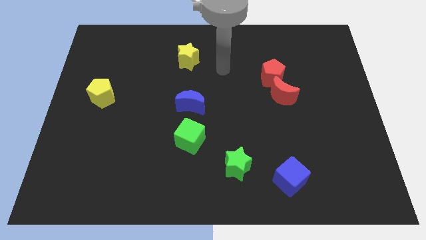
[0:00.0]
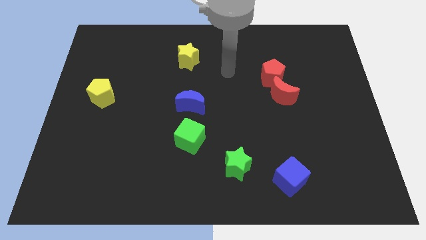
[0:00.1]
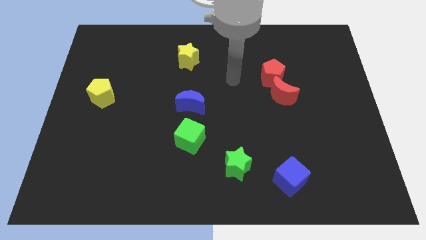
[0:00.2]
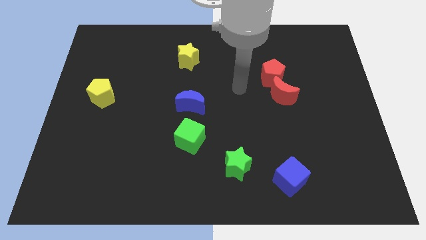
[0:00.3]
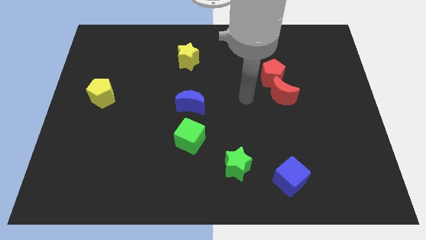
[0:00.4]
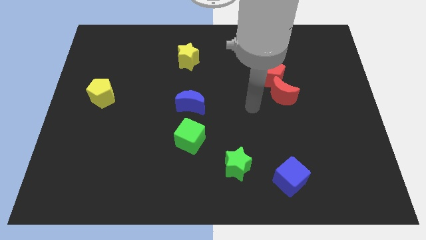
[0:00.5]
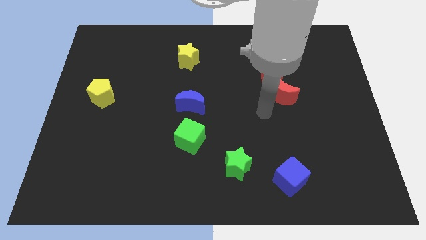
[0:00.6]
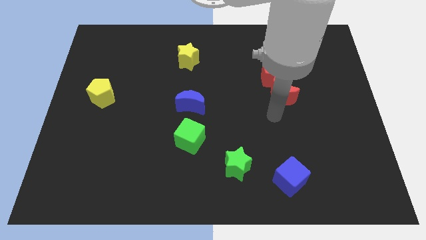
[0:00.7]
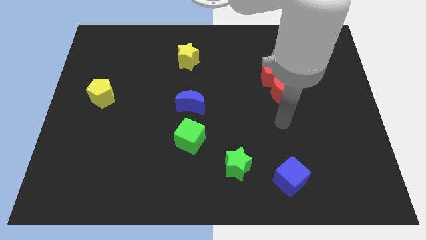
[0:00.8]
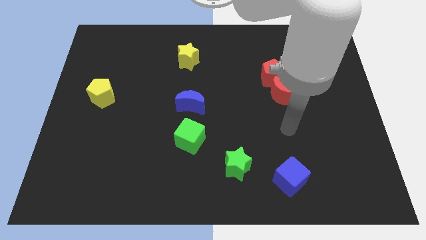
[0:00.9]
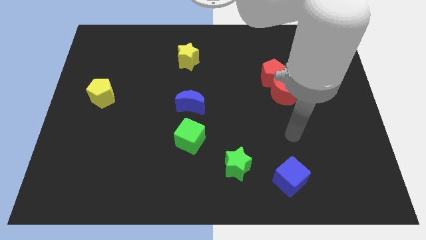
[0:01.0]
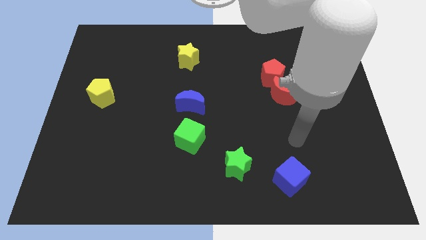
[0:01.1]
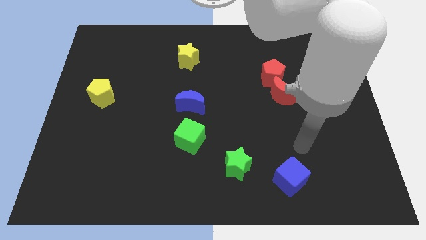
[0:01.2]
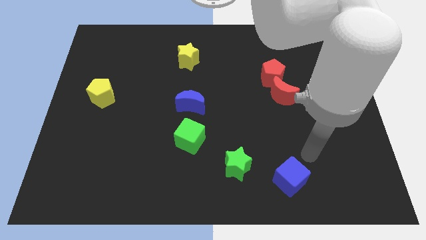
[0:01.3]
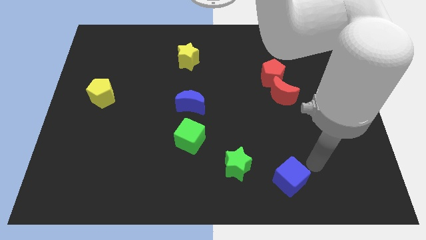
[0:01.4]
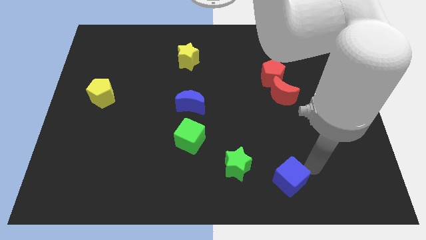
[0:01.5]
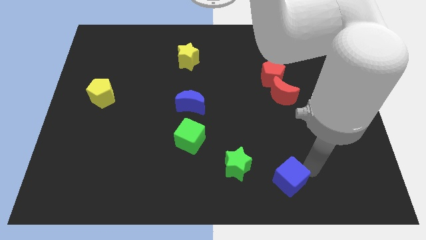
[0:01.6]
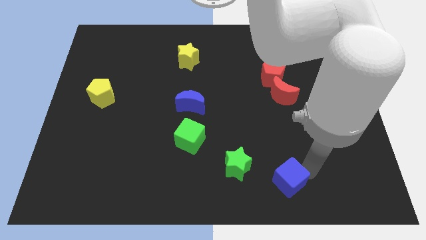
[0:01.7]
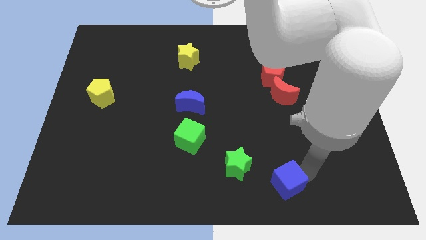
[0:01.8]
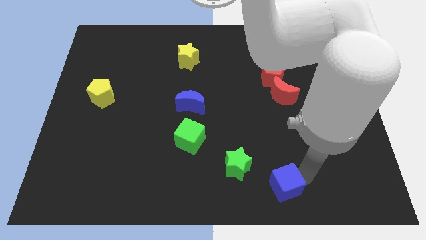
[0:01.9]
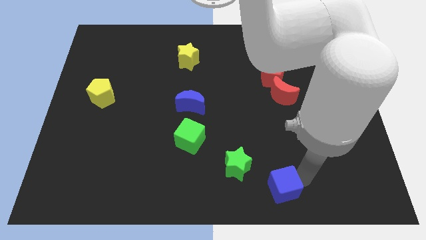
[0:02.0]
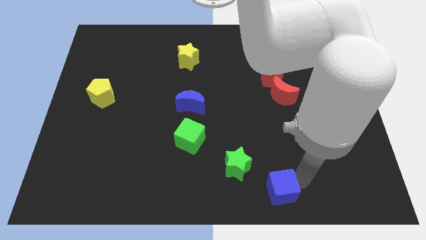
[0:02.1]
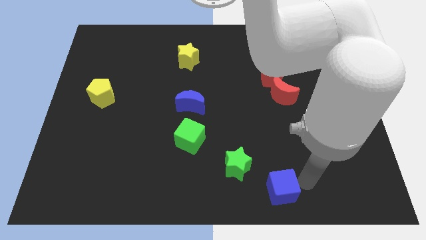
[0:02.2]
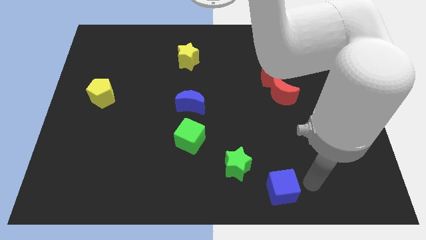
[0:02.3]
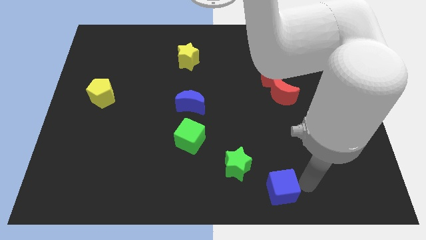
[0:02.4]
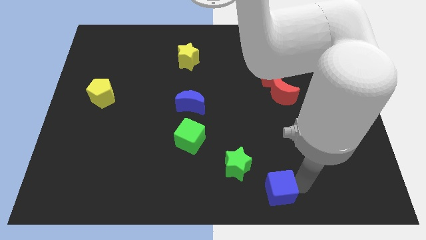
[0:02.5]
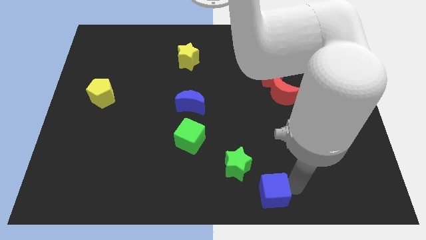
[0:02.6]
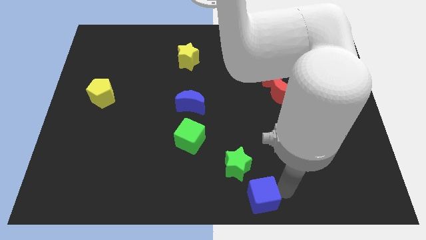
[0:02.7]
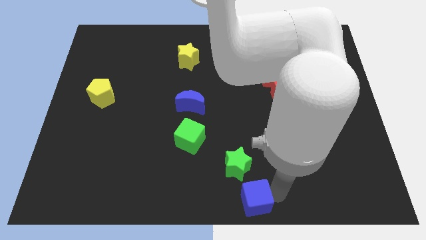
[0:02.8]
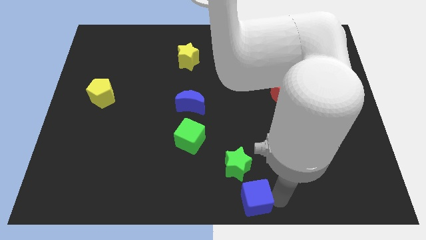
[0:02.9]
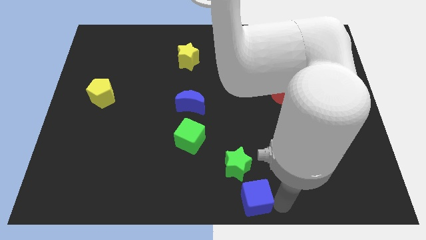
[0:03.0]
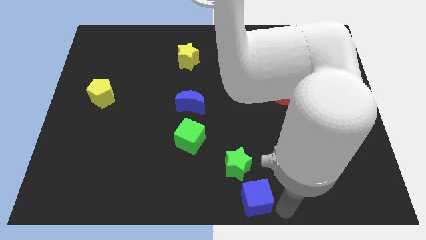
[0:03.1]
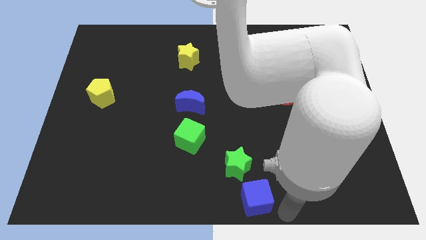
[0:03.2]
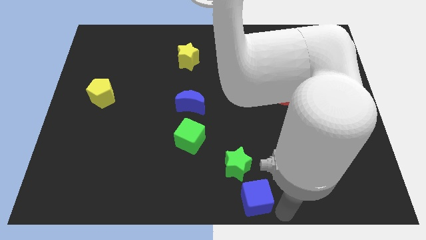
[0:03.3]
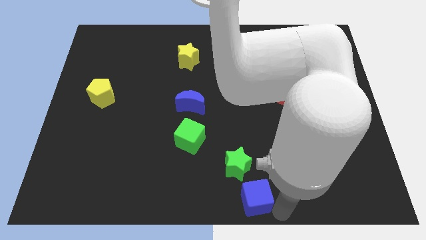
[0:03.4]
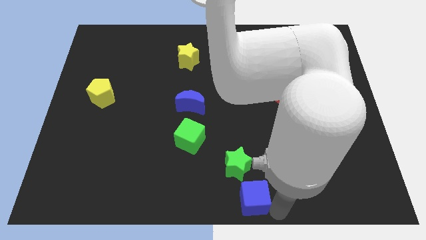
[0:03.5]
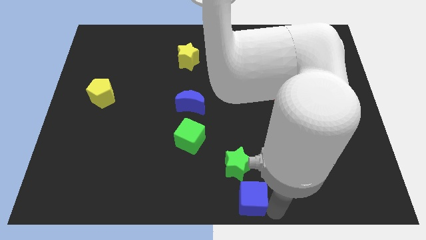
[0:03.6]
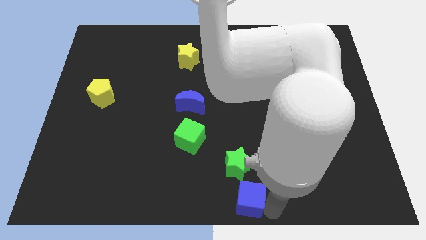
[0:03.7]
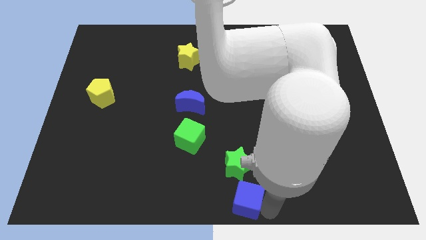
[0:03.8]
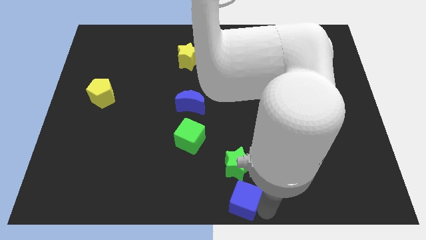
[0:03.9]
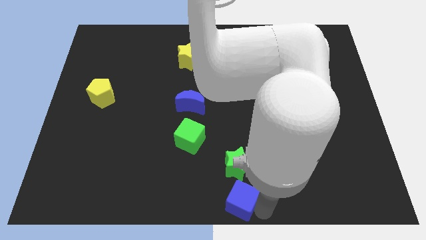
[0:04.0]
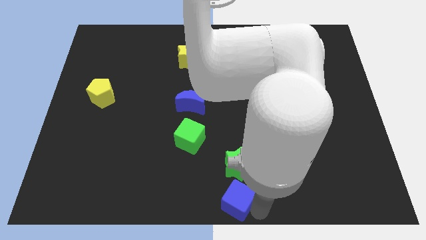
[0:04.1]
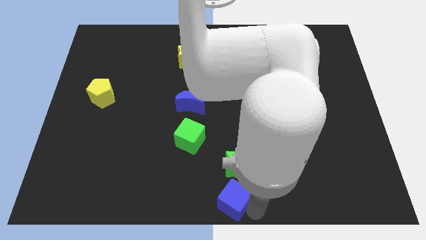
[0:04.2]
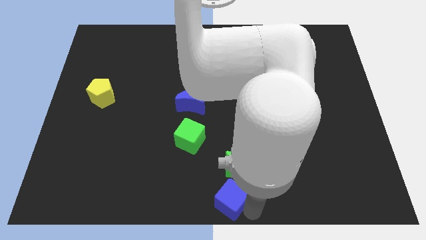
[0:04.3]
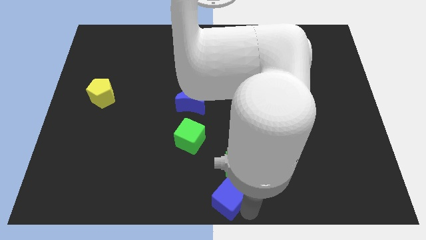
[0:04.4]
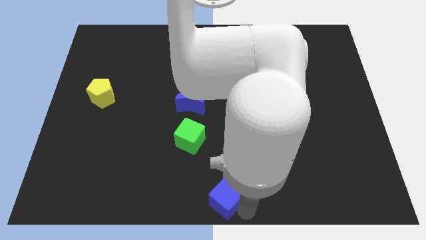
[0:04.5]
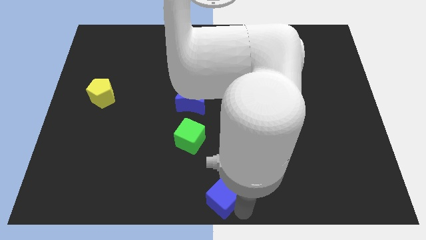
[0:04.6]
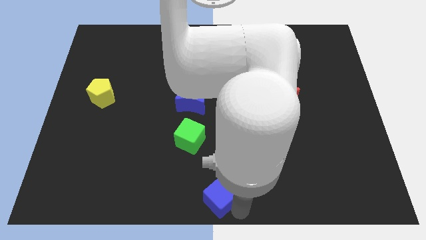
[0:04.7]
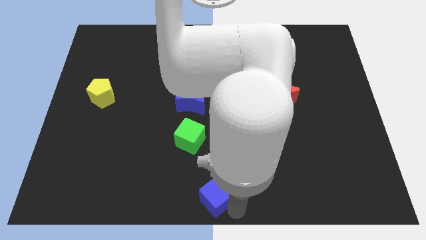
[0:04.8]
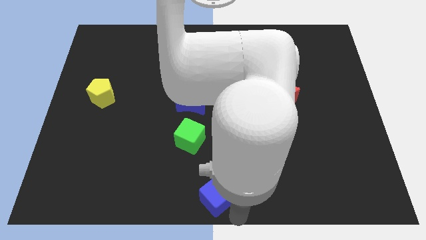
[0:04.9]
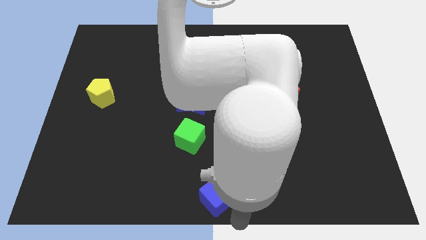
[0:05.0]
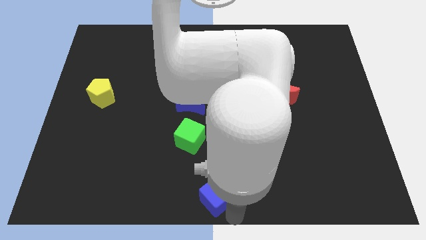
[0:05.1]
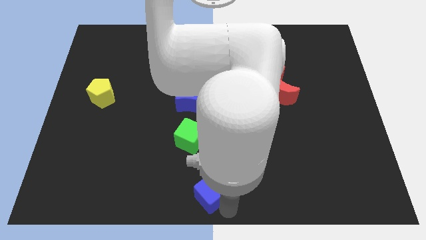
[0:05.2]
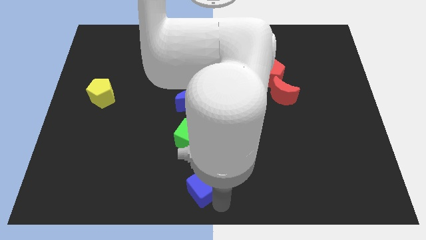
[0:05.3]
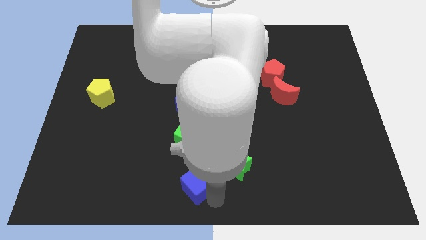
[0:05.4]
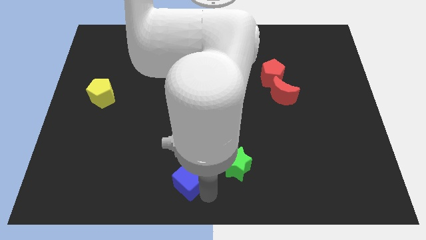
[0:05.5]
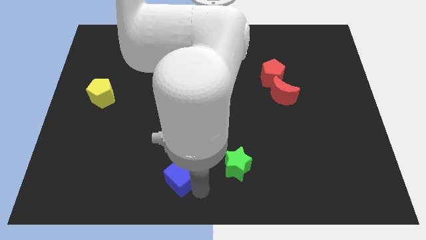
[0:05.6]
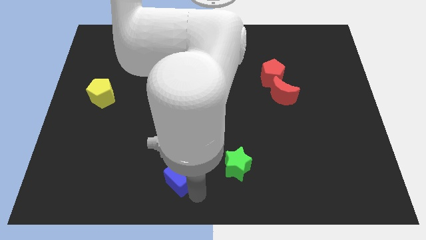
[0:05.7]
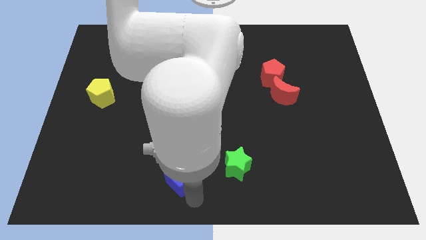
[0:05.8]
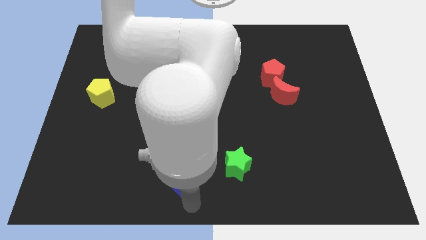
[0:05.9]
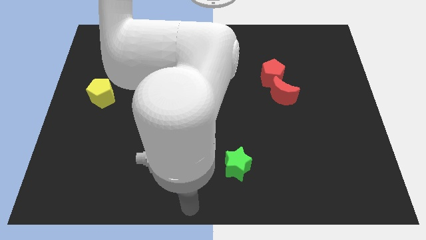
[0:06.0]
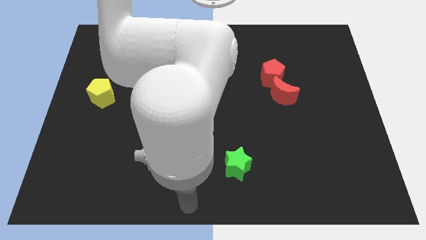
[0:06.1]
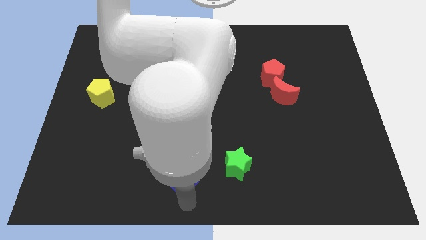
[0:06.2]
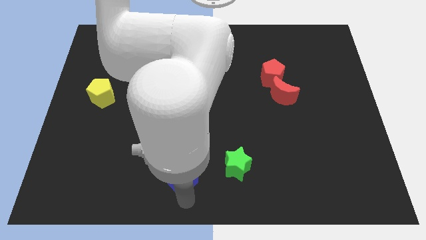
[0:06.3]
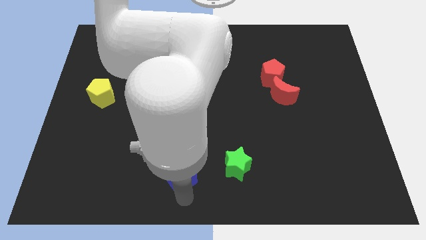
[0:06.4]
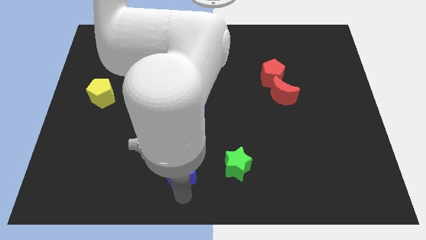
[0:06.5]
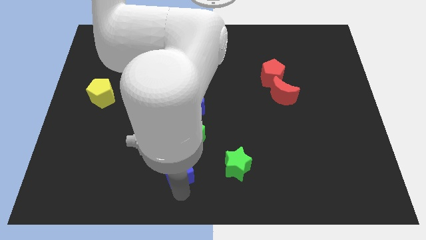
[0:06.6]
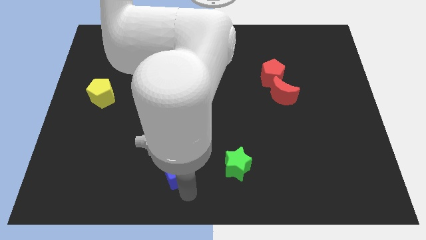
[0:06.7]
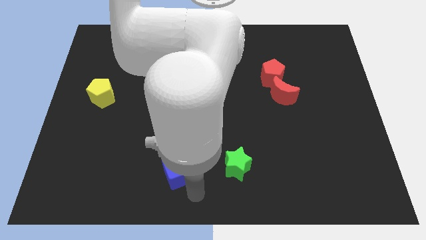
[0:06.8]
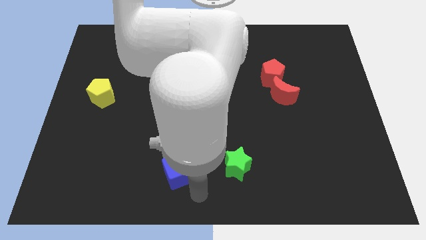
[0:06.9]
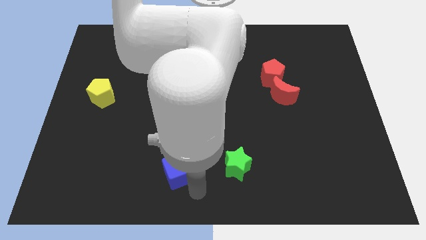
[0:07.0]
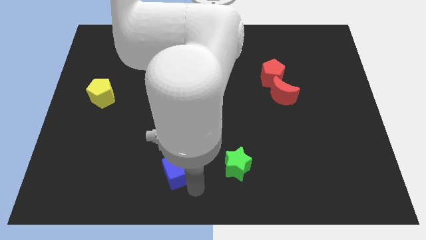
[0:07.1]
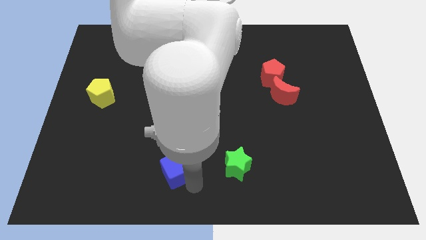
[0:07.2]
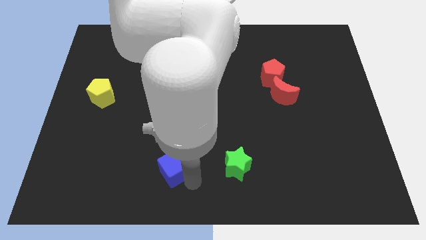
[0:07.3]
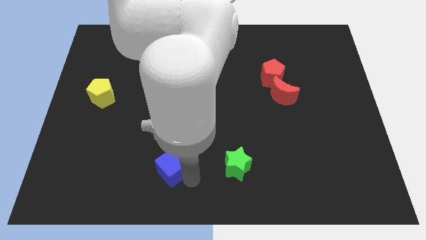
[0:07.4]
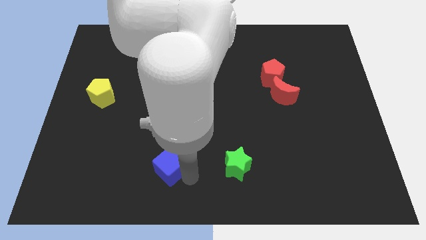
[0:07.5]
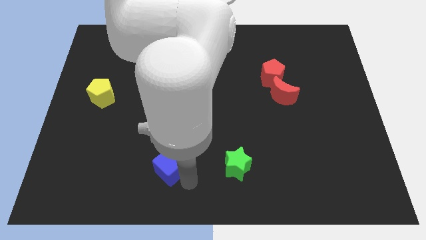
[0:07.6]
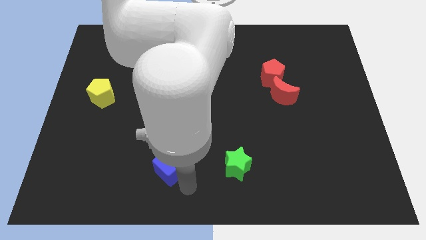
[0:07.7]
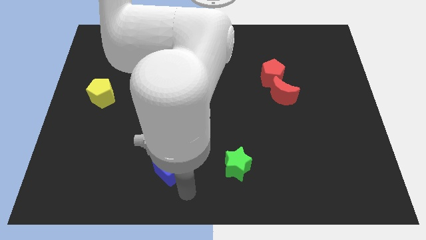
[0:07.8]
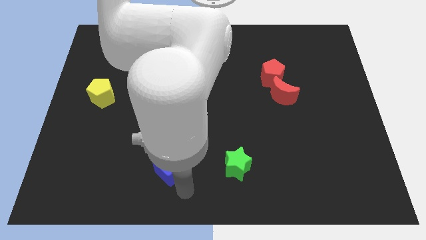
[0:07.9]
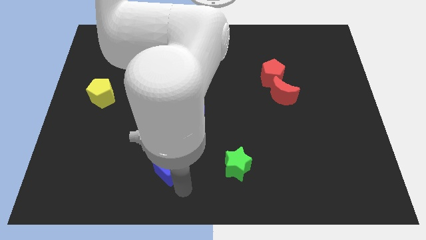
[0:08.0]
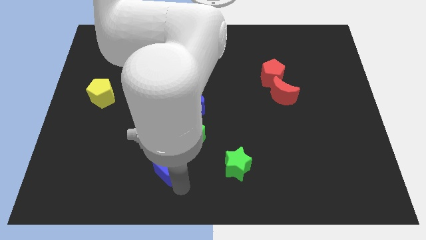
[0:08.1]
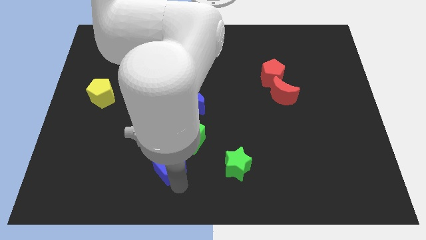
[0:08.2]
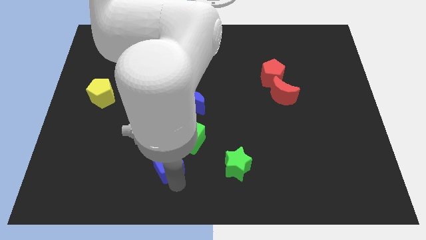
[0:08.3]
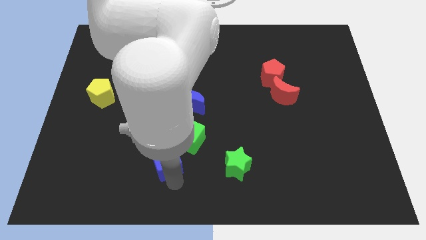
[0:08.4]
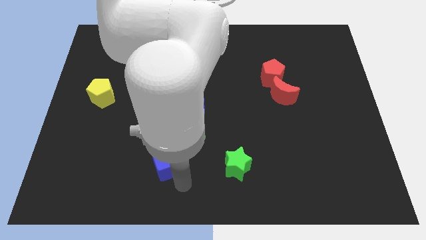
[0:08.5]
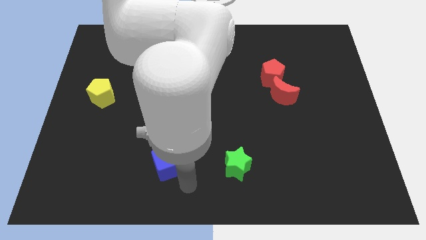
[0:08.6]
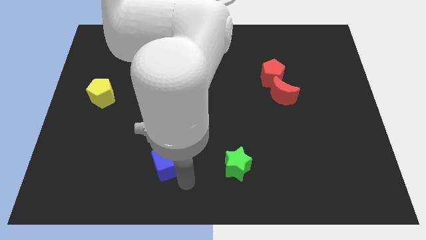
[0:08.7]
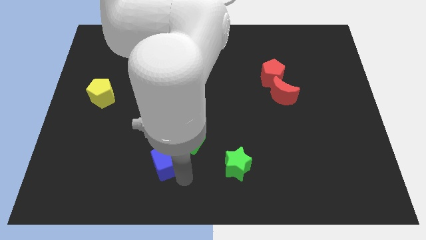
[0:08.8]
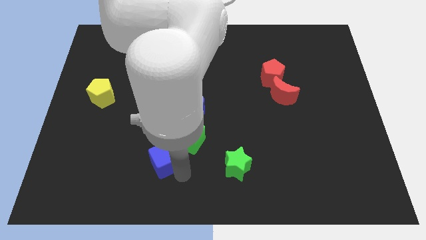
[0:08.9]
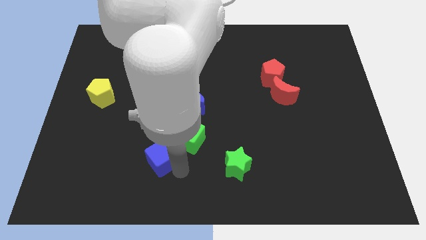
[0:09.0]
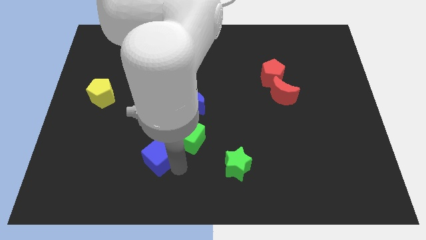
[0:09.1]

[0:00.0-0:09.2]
move the blue cube to the left side of the green cube
